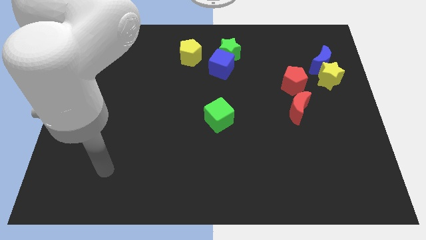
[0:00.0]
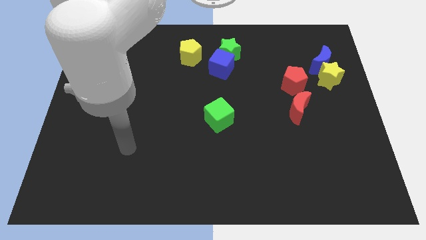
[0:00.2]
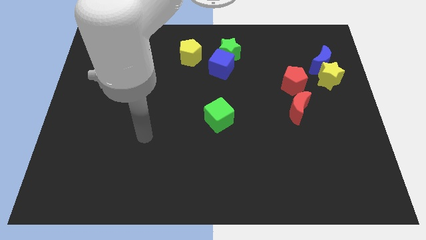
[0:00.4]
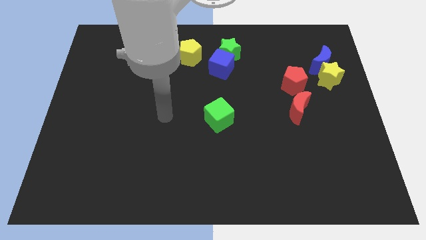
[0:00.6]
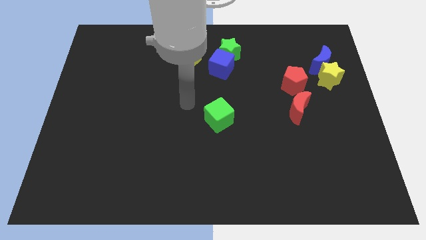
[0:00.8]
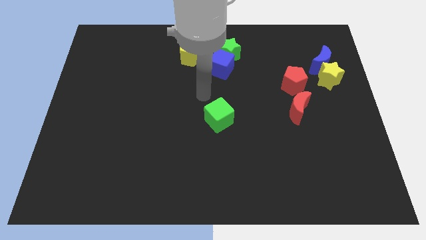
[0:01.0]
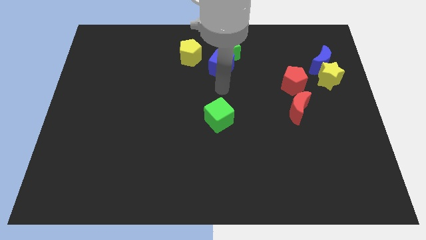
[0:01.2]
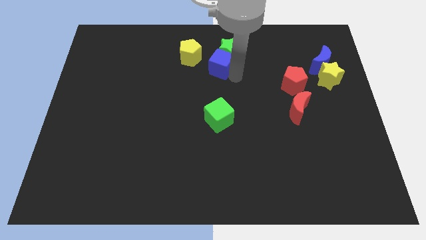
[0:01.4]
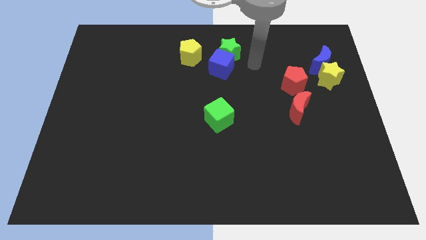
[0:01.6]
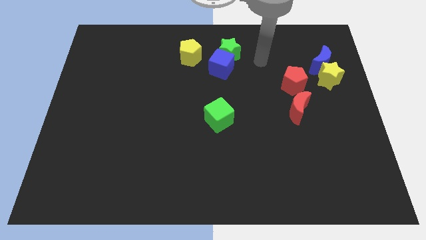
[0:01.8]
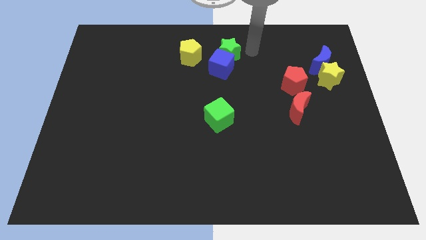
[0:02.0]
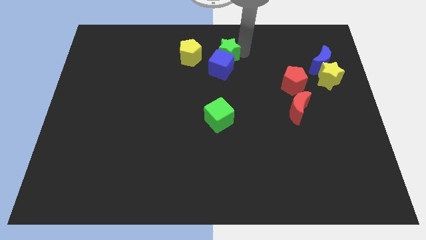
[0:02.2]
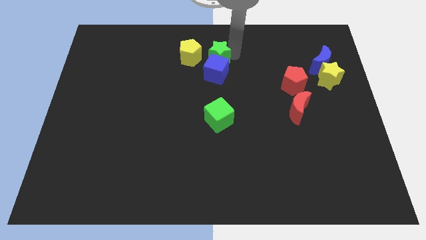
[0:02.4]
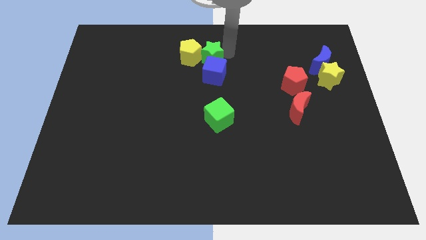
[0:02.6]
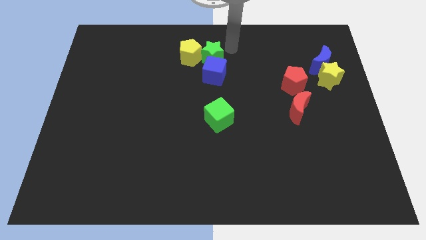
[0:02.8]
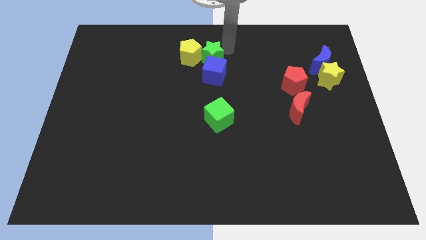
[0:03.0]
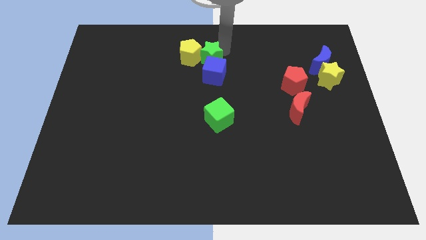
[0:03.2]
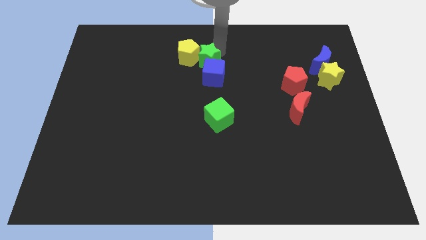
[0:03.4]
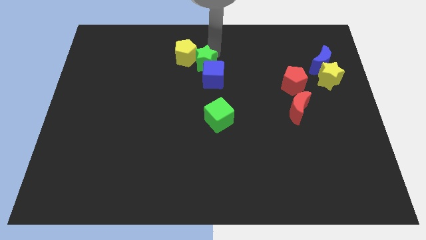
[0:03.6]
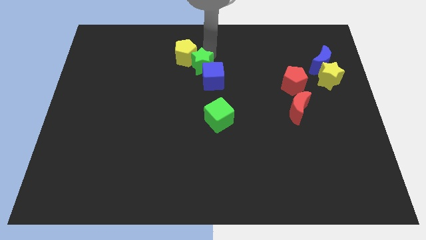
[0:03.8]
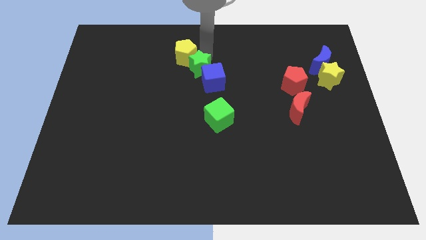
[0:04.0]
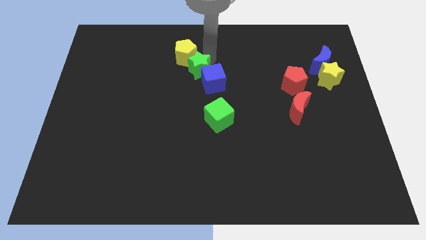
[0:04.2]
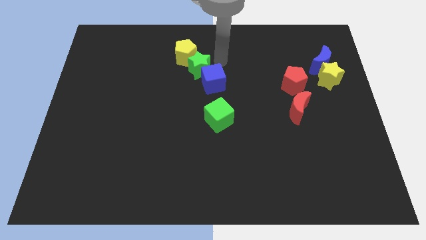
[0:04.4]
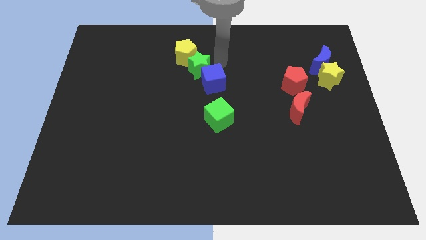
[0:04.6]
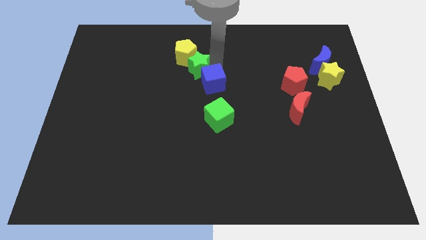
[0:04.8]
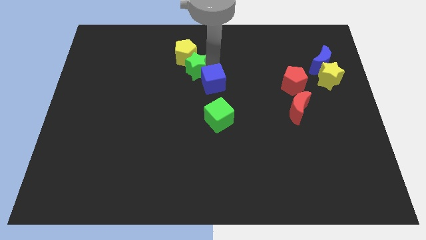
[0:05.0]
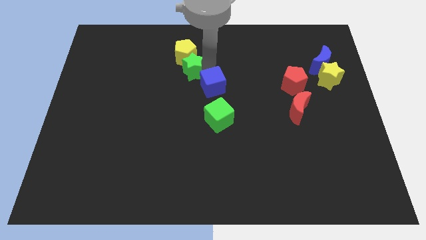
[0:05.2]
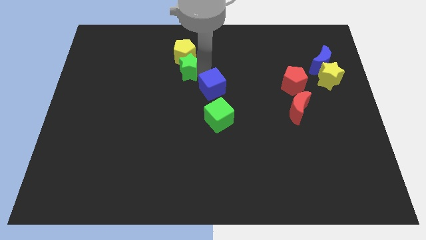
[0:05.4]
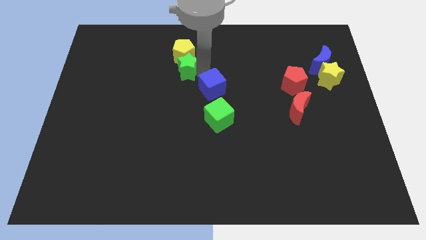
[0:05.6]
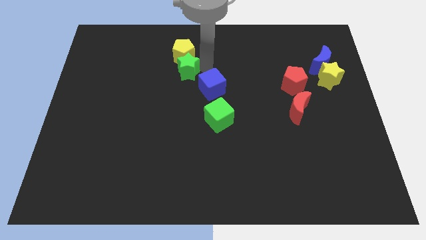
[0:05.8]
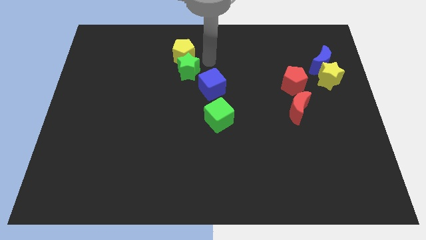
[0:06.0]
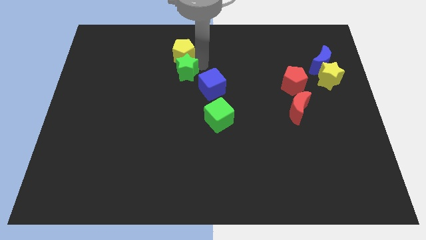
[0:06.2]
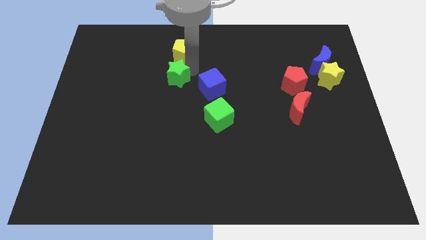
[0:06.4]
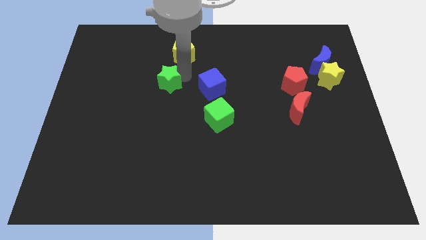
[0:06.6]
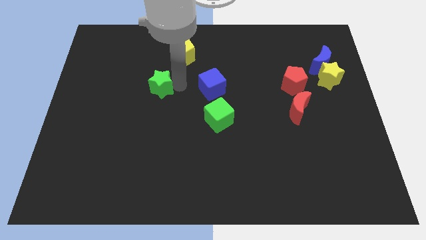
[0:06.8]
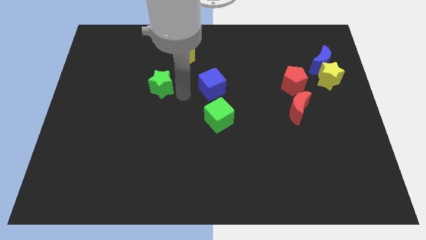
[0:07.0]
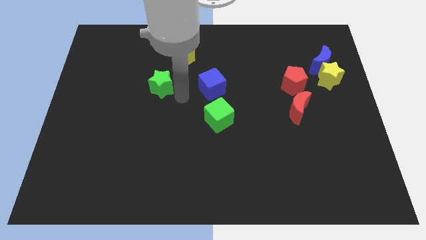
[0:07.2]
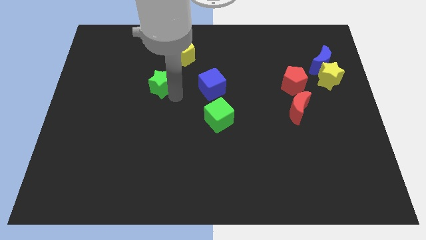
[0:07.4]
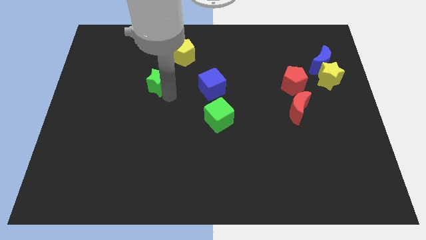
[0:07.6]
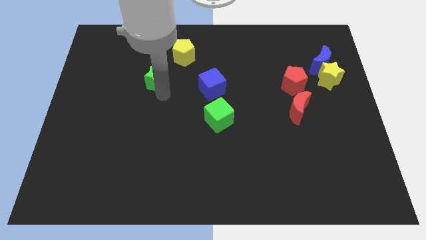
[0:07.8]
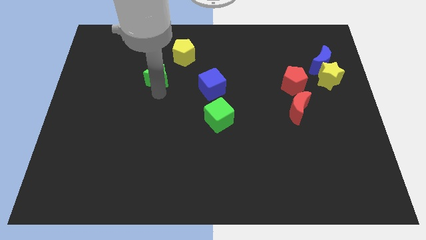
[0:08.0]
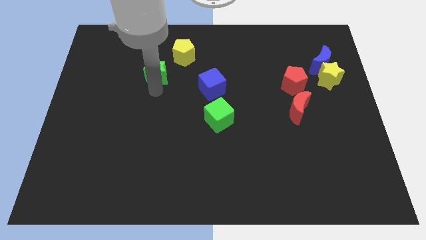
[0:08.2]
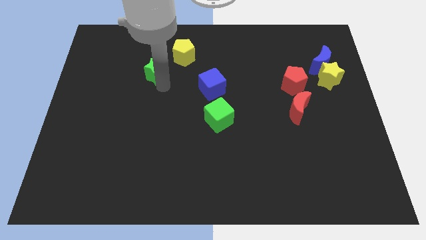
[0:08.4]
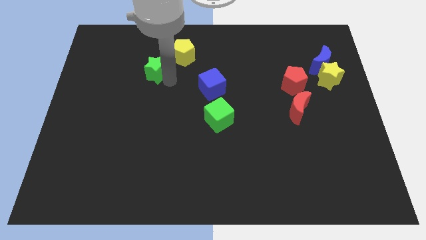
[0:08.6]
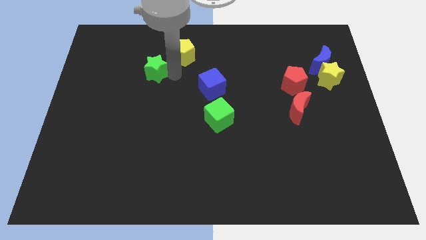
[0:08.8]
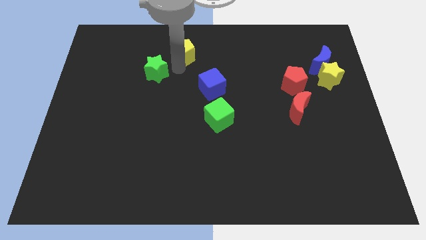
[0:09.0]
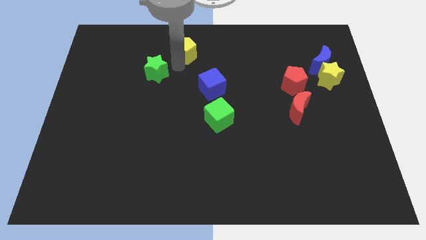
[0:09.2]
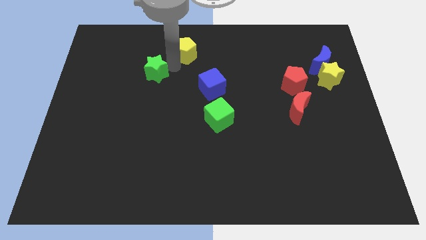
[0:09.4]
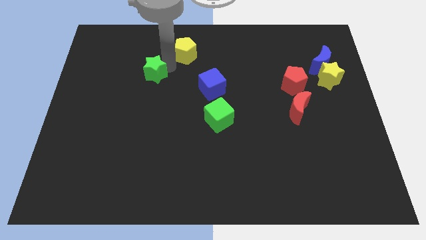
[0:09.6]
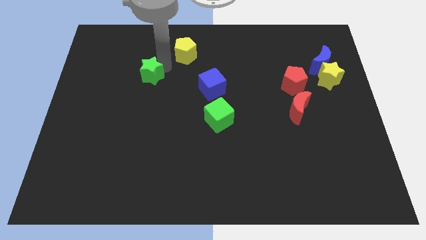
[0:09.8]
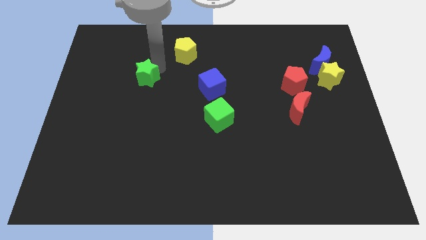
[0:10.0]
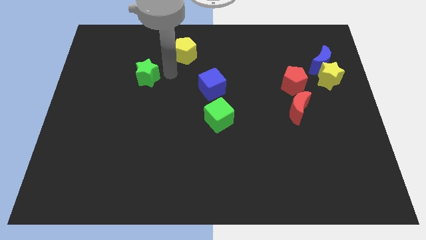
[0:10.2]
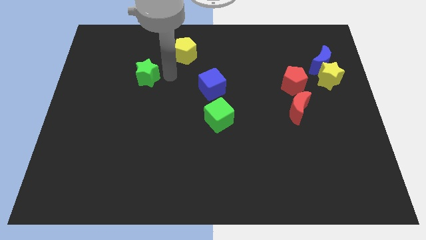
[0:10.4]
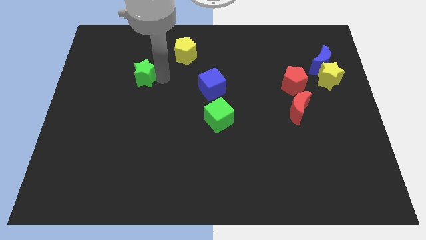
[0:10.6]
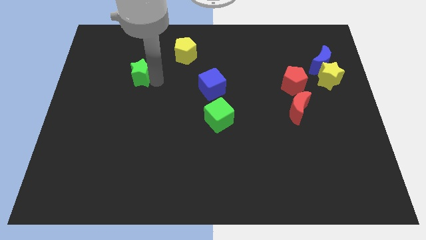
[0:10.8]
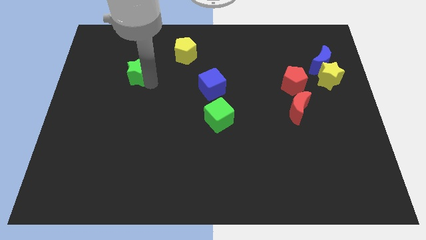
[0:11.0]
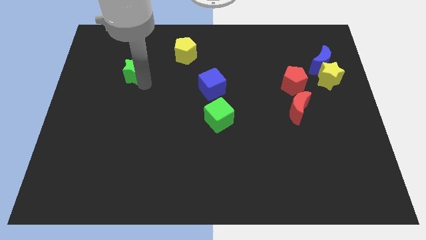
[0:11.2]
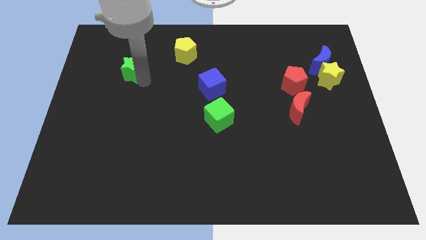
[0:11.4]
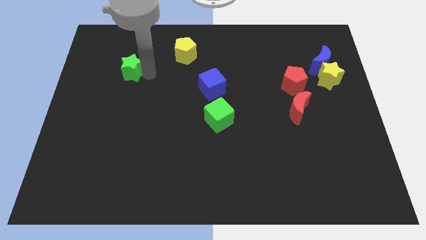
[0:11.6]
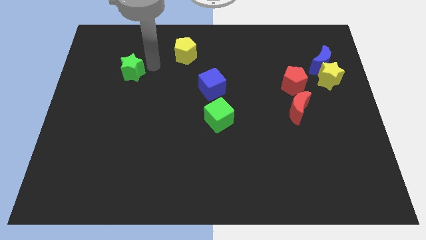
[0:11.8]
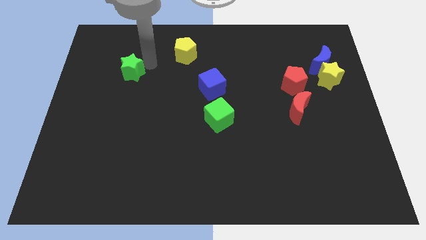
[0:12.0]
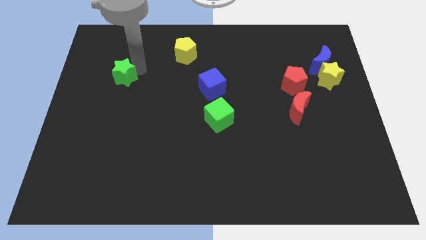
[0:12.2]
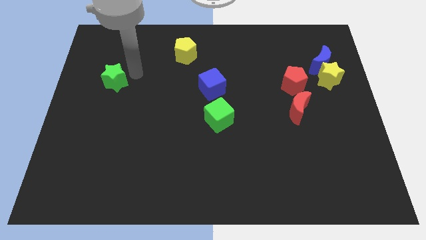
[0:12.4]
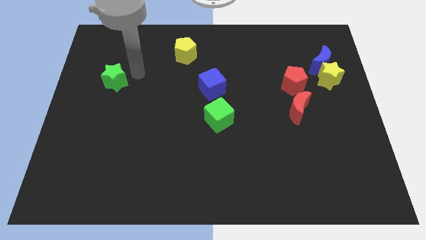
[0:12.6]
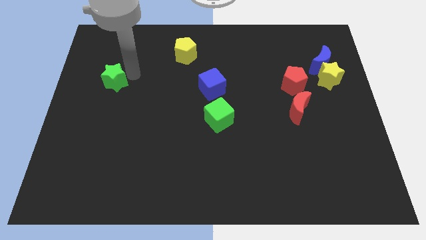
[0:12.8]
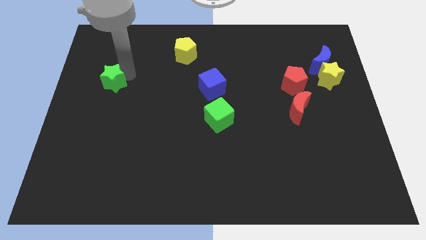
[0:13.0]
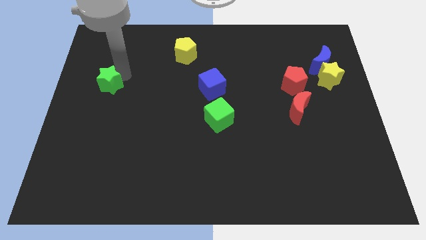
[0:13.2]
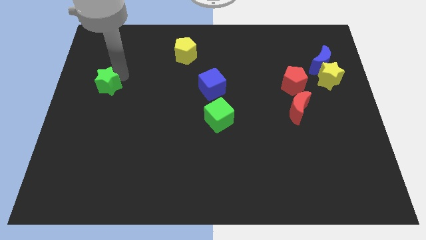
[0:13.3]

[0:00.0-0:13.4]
move the green star to the center left

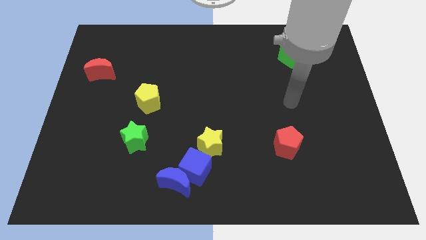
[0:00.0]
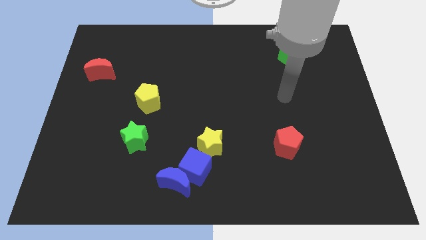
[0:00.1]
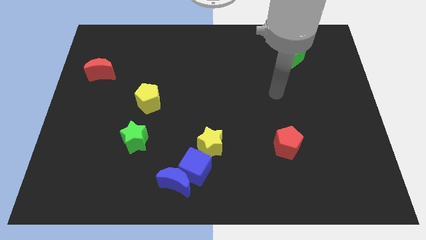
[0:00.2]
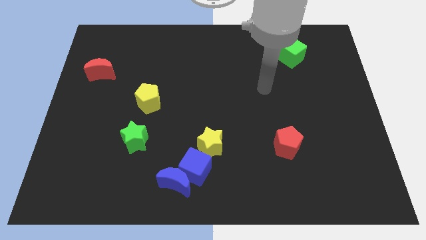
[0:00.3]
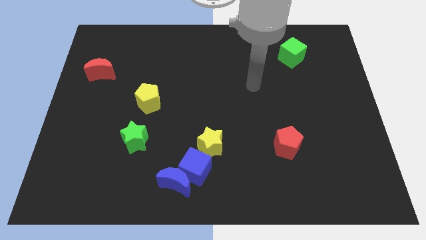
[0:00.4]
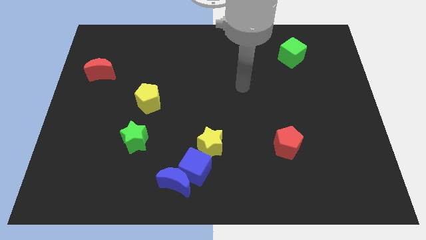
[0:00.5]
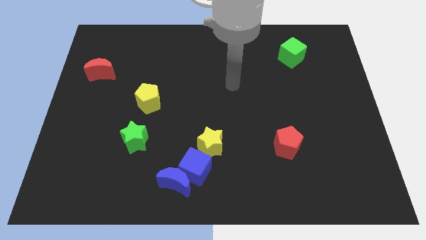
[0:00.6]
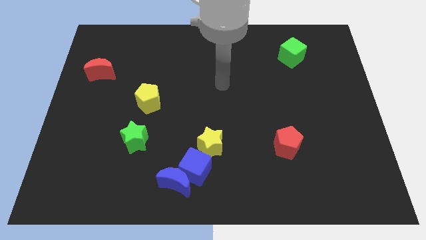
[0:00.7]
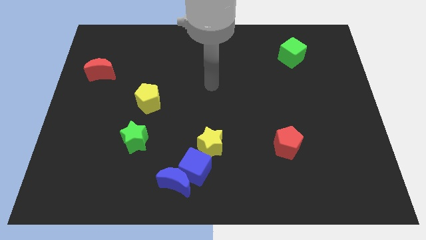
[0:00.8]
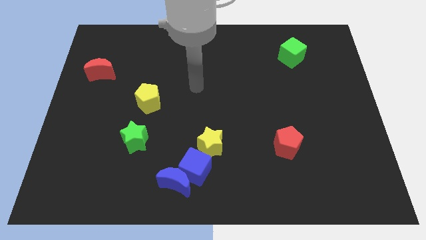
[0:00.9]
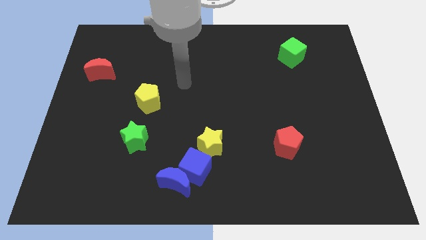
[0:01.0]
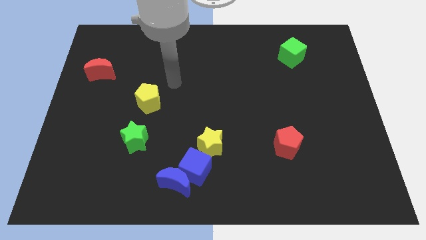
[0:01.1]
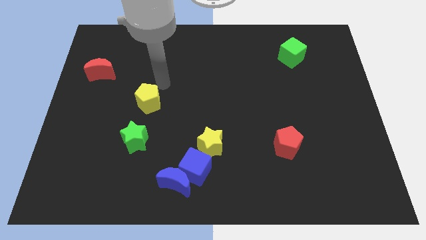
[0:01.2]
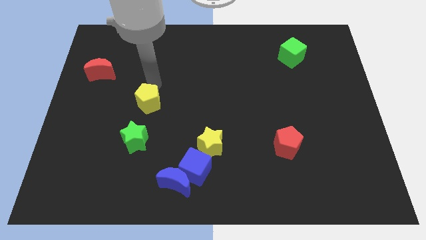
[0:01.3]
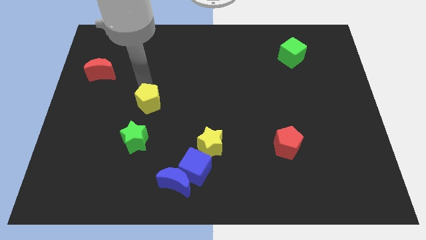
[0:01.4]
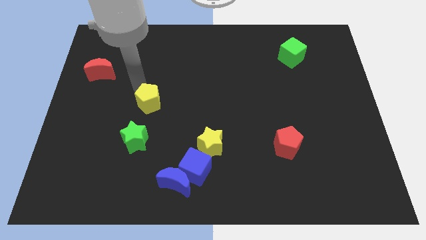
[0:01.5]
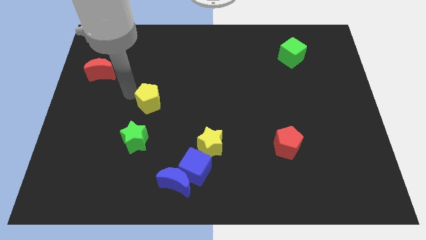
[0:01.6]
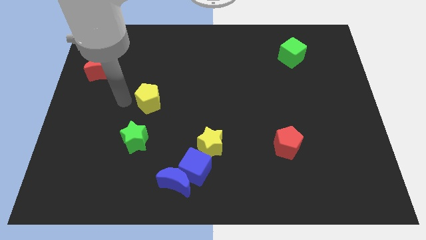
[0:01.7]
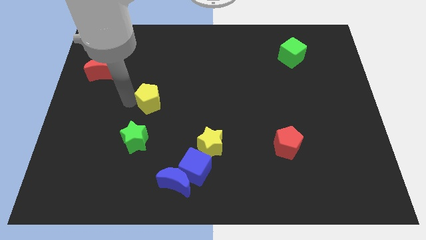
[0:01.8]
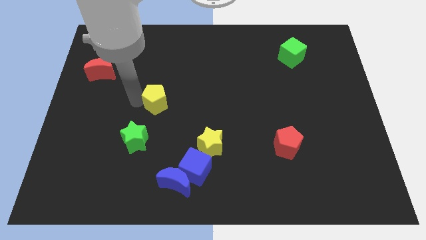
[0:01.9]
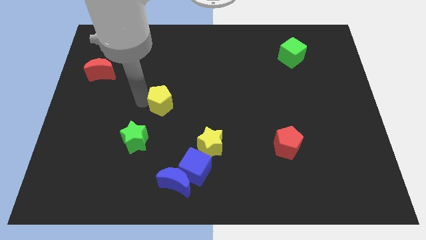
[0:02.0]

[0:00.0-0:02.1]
put the yellow pentagon to the center
